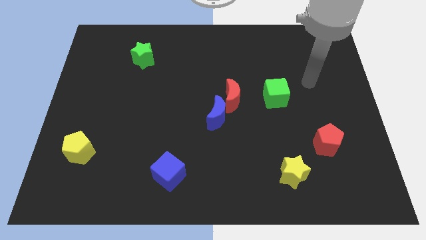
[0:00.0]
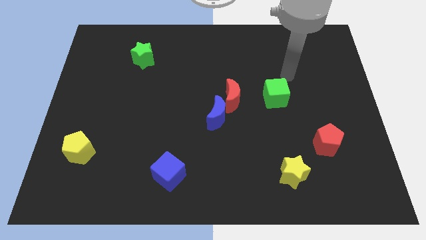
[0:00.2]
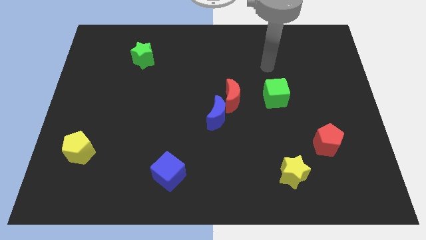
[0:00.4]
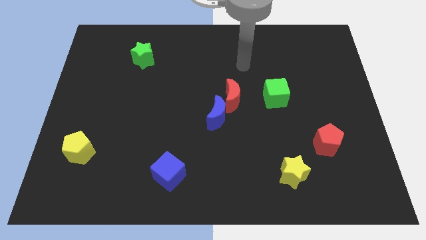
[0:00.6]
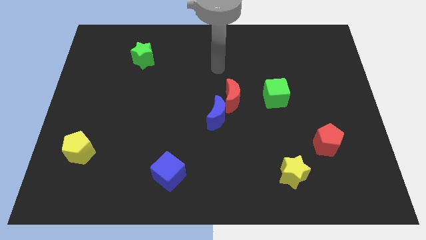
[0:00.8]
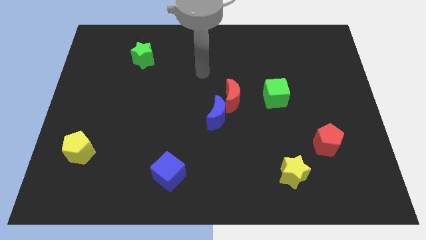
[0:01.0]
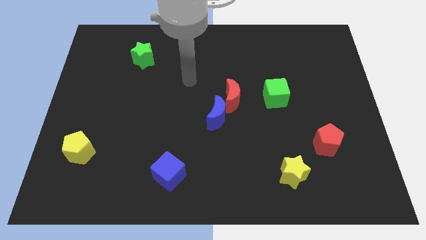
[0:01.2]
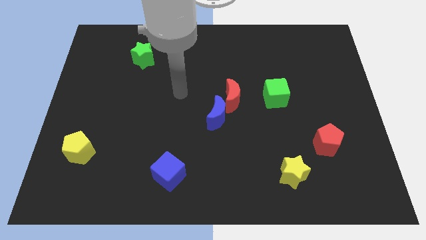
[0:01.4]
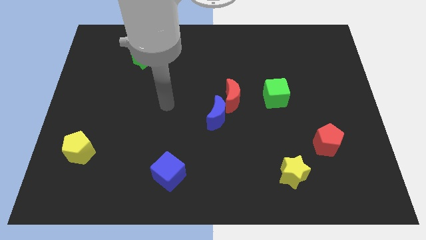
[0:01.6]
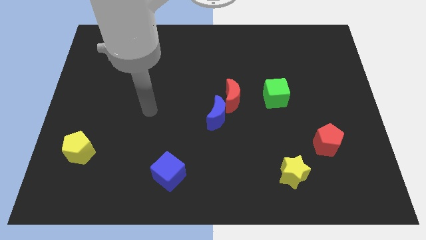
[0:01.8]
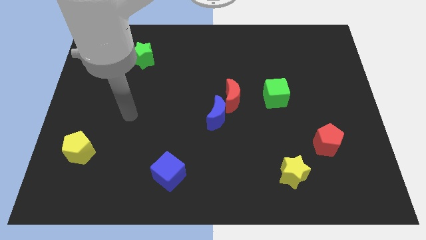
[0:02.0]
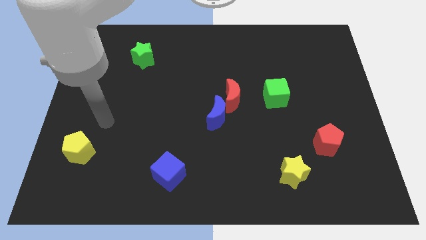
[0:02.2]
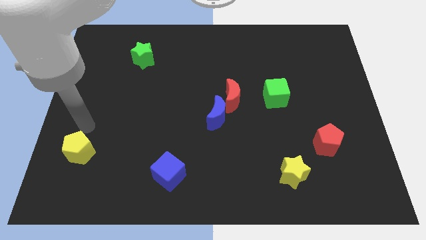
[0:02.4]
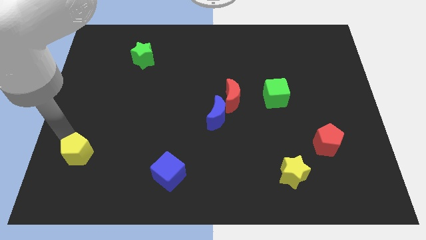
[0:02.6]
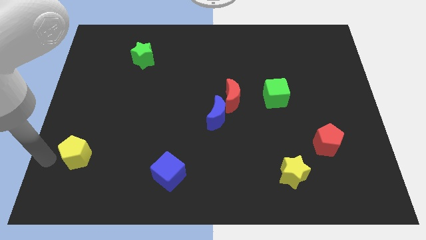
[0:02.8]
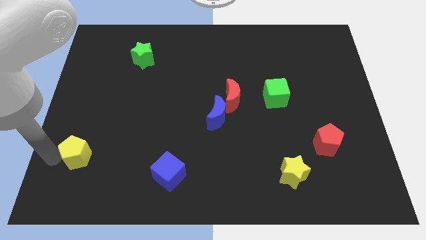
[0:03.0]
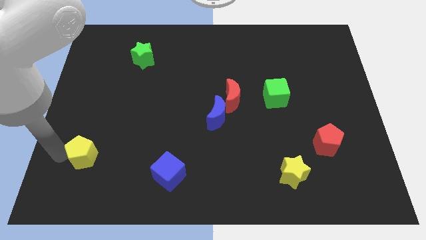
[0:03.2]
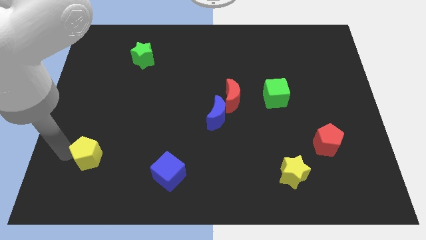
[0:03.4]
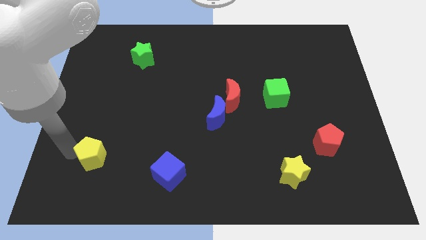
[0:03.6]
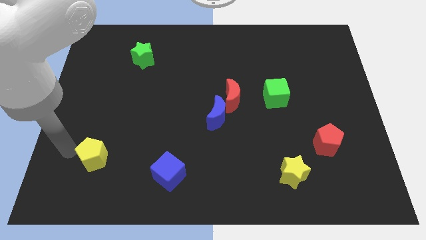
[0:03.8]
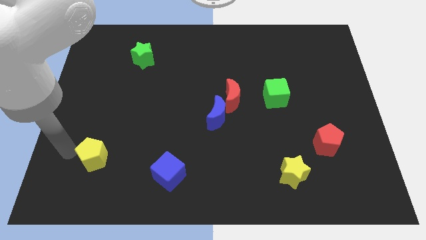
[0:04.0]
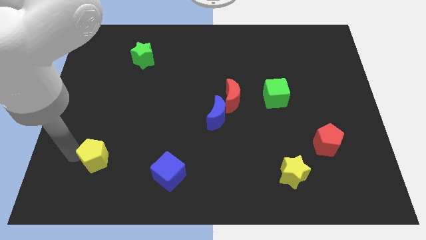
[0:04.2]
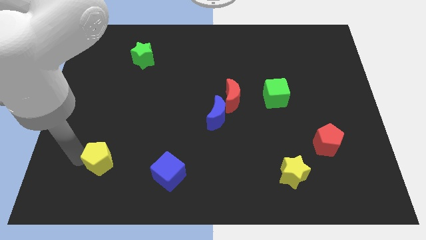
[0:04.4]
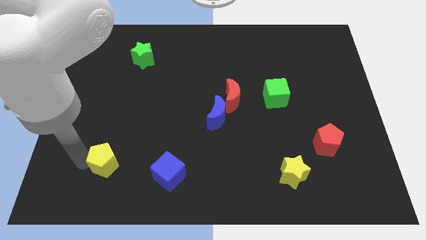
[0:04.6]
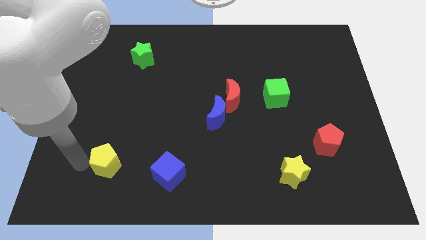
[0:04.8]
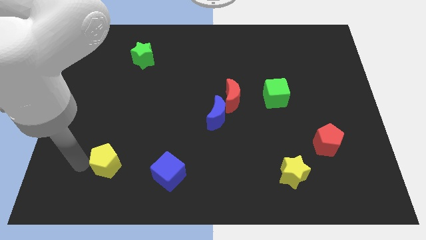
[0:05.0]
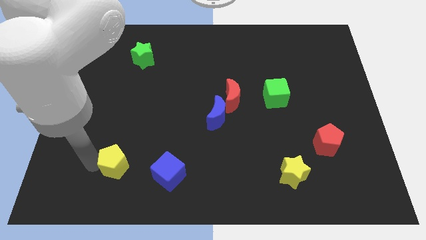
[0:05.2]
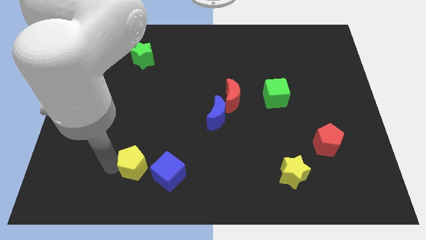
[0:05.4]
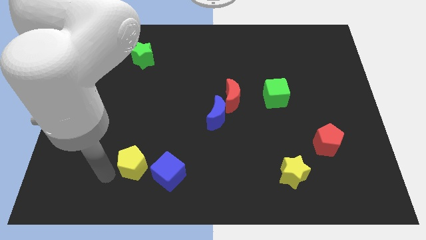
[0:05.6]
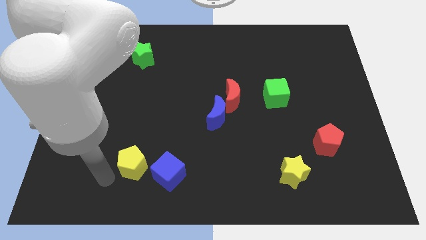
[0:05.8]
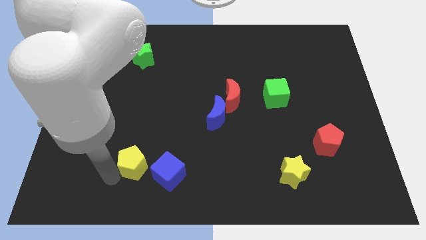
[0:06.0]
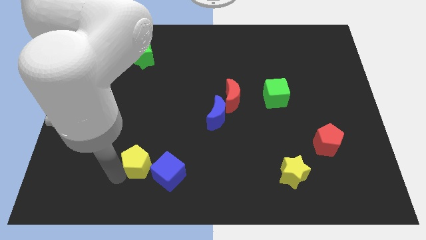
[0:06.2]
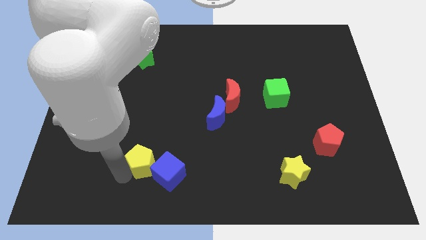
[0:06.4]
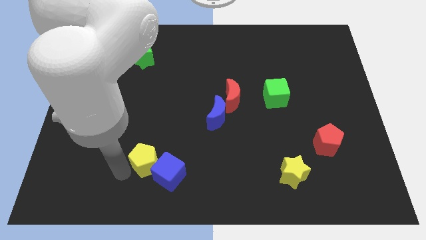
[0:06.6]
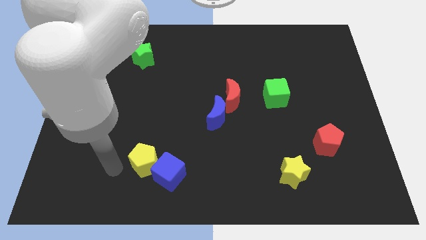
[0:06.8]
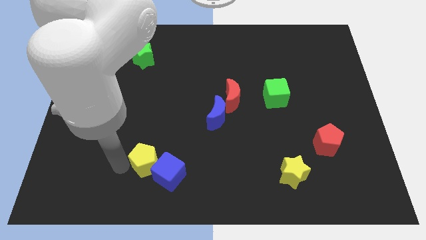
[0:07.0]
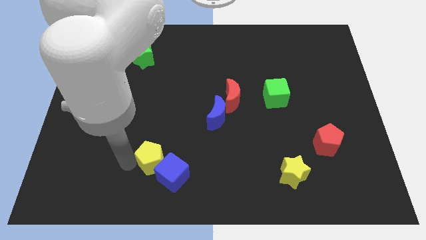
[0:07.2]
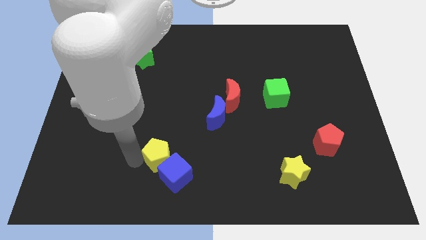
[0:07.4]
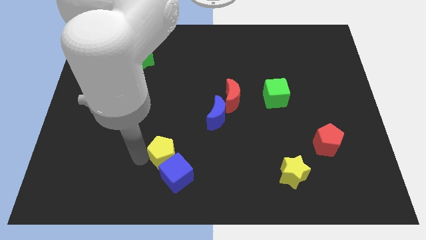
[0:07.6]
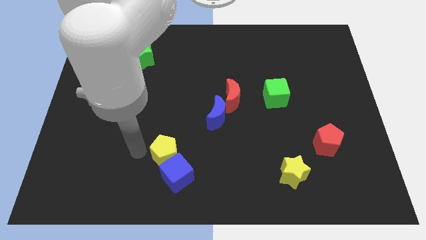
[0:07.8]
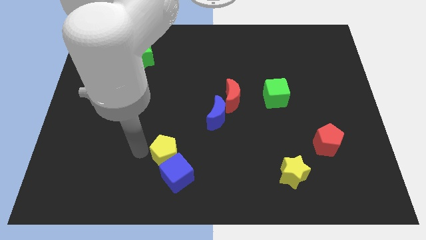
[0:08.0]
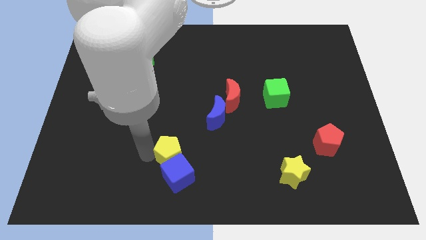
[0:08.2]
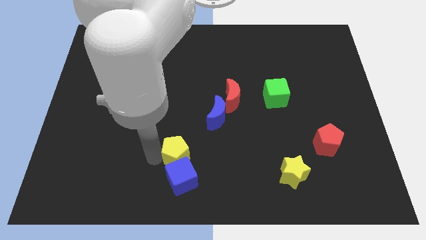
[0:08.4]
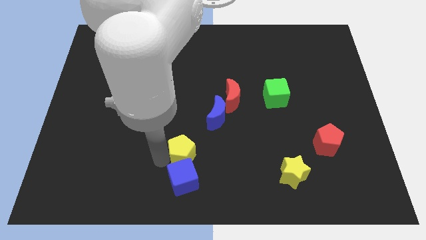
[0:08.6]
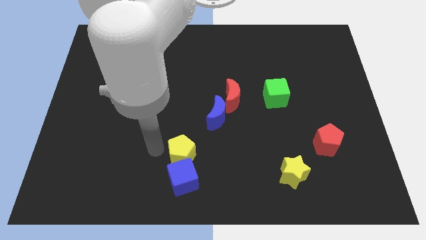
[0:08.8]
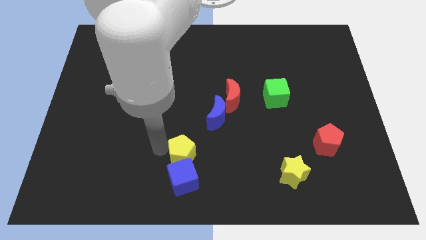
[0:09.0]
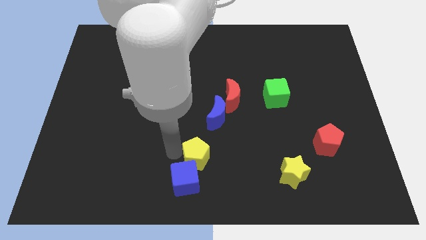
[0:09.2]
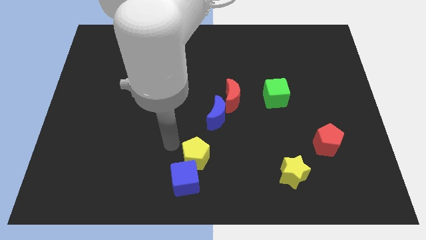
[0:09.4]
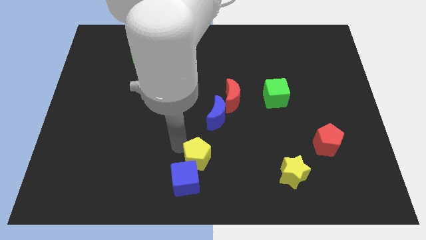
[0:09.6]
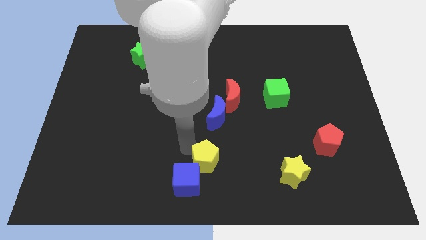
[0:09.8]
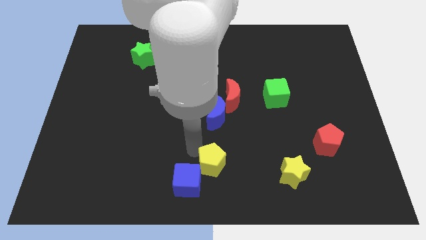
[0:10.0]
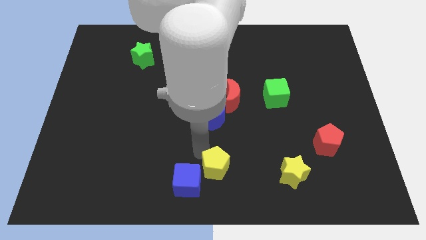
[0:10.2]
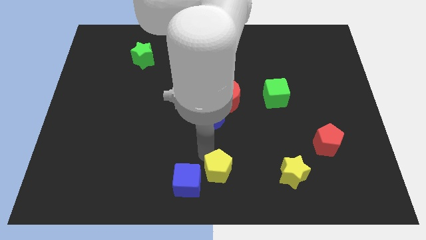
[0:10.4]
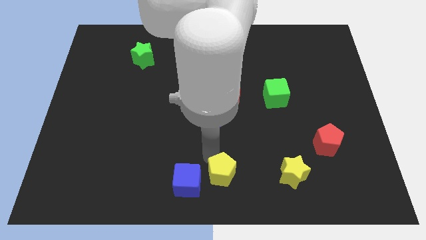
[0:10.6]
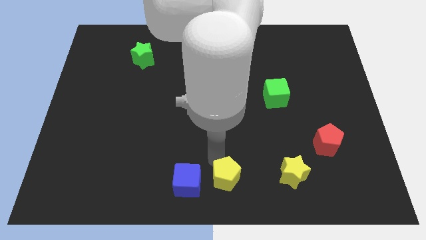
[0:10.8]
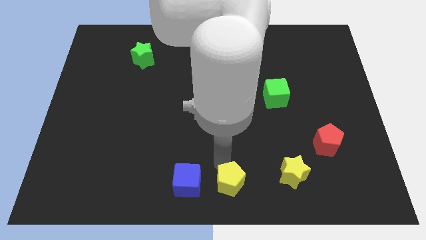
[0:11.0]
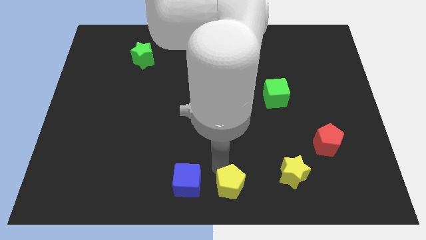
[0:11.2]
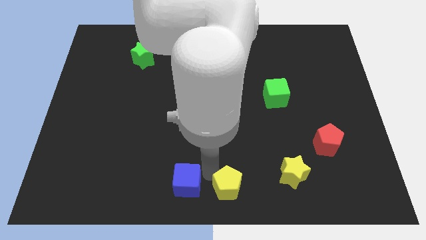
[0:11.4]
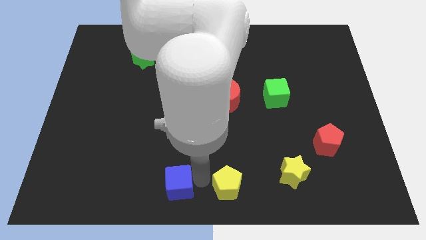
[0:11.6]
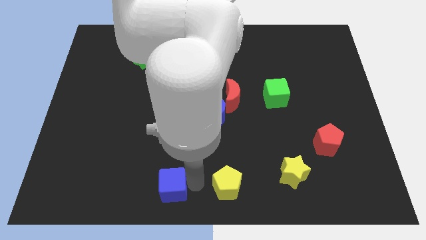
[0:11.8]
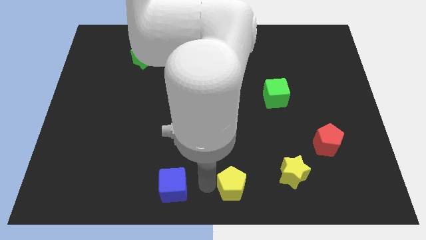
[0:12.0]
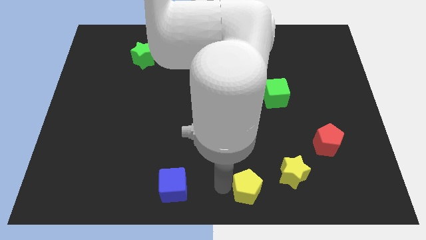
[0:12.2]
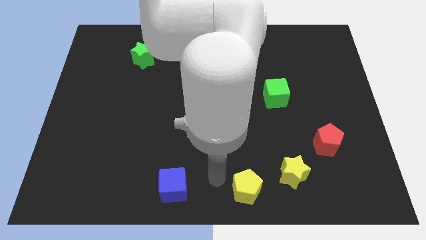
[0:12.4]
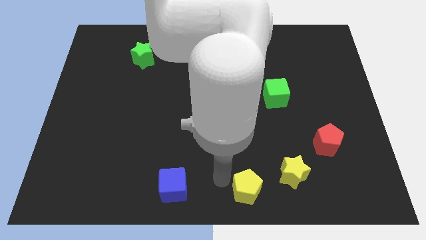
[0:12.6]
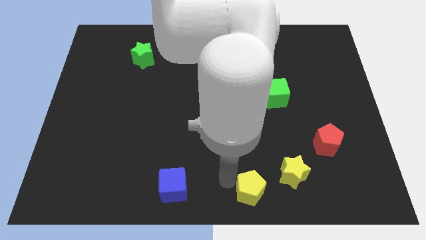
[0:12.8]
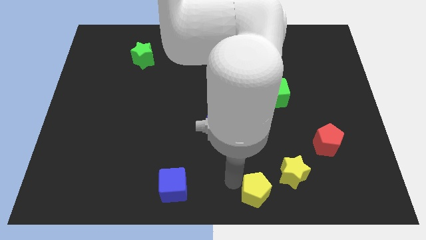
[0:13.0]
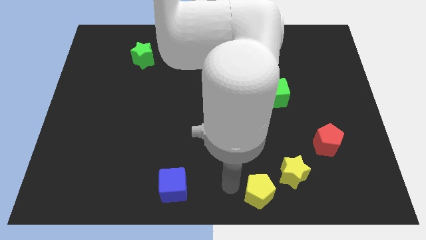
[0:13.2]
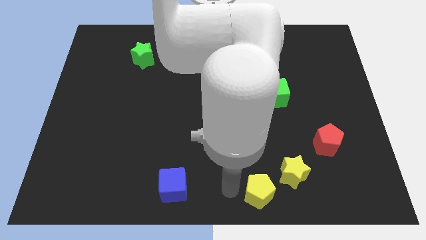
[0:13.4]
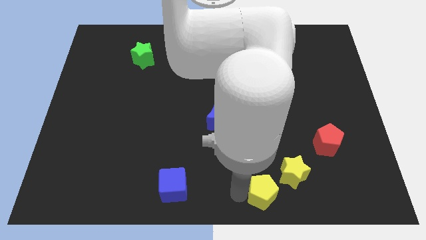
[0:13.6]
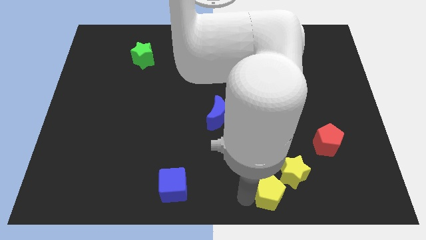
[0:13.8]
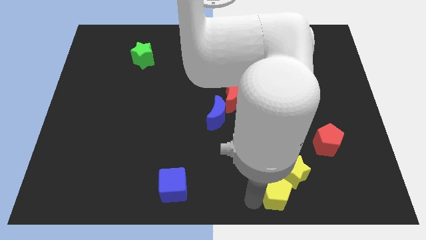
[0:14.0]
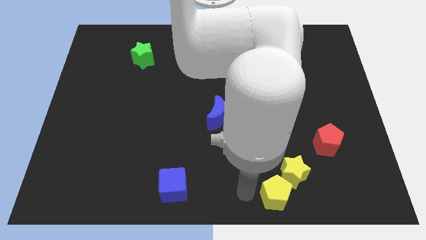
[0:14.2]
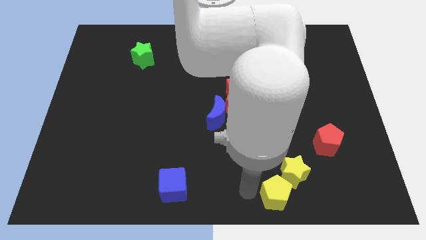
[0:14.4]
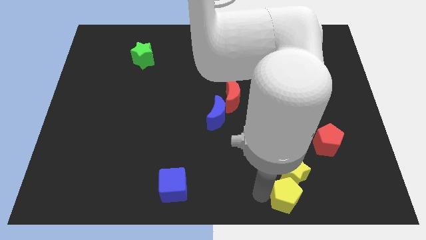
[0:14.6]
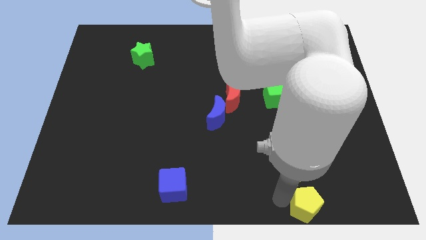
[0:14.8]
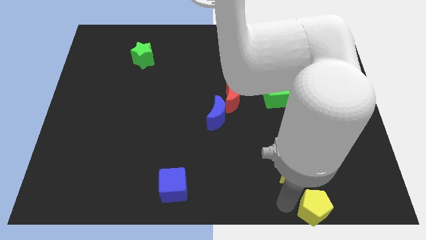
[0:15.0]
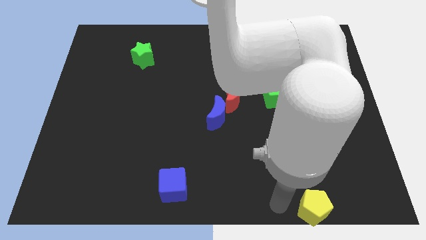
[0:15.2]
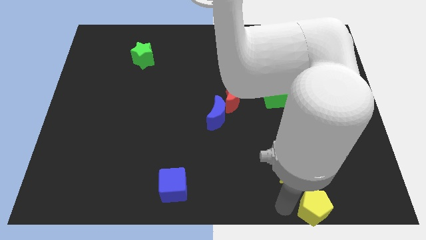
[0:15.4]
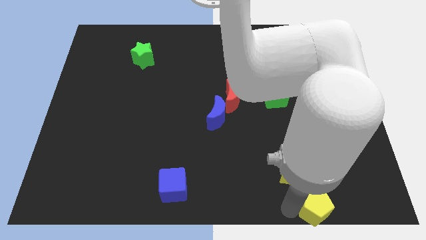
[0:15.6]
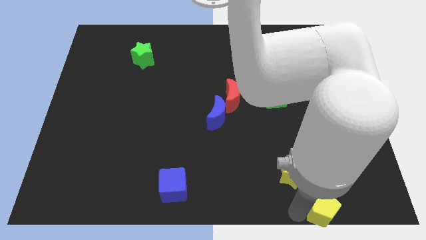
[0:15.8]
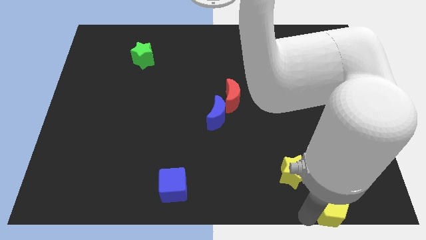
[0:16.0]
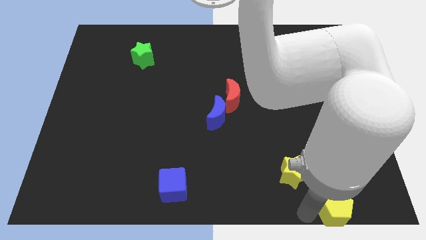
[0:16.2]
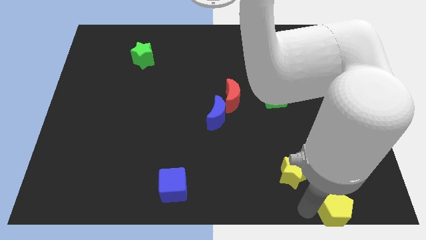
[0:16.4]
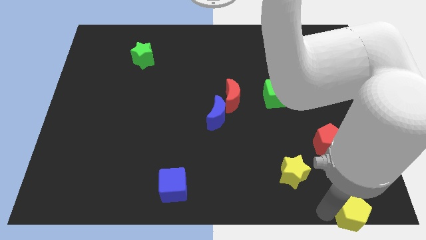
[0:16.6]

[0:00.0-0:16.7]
push the yellow pentagon to the bottom right
